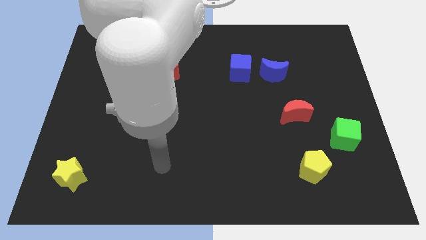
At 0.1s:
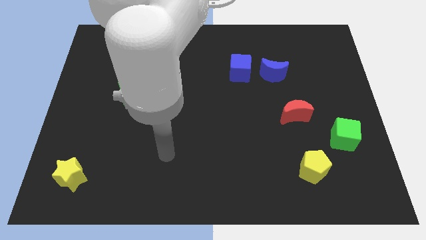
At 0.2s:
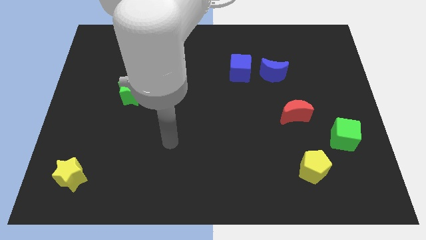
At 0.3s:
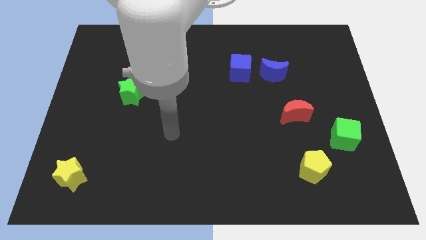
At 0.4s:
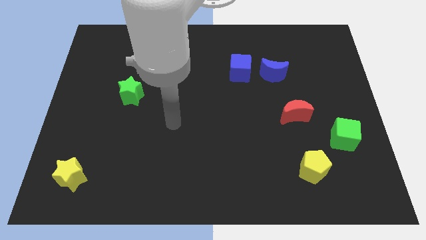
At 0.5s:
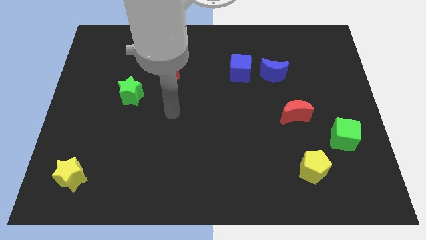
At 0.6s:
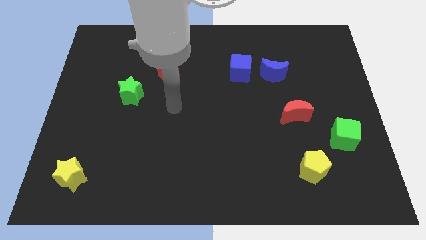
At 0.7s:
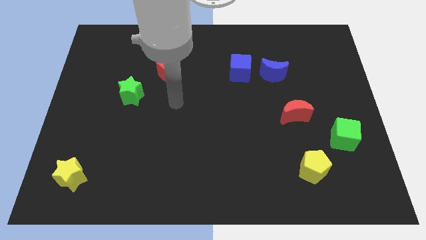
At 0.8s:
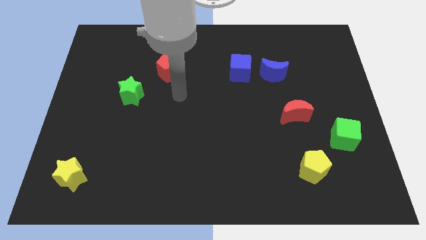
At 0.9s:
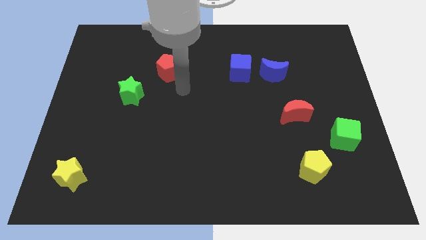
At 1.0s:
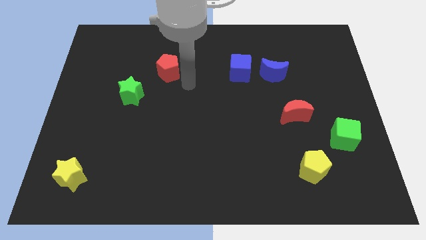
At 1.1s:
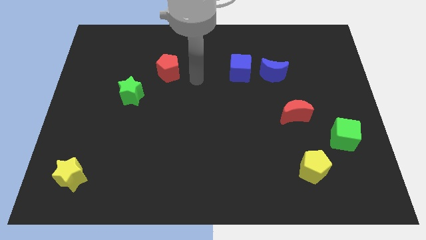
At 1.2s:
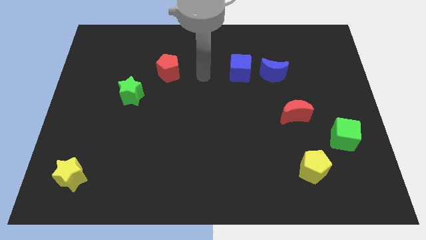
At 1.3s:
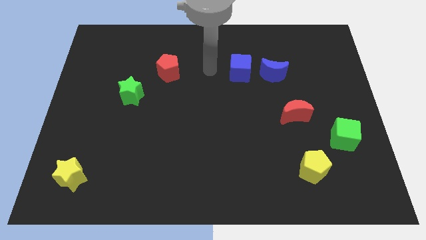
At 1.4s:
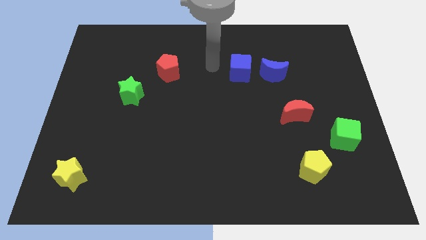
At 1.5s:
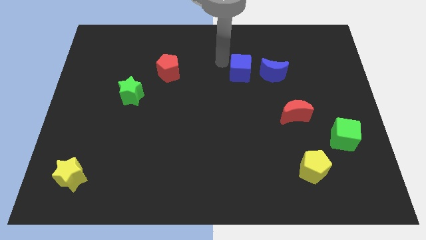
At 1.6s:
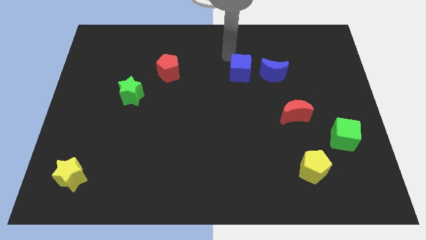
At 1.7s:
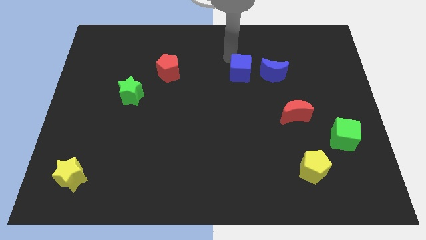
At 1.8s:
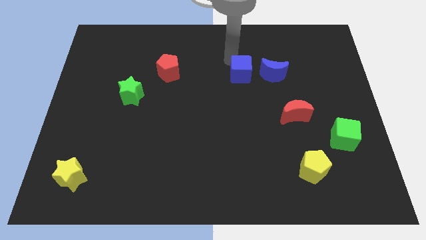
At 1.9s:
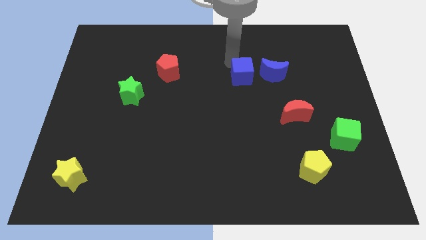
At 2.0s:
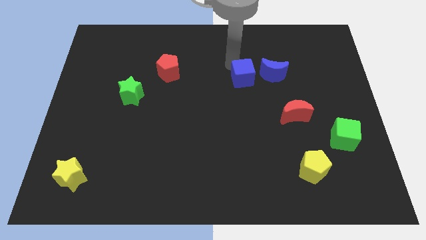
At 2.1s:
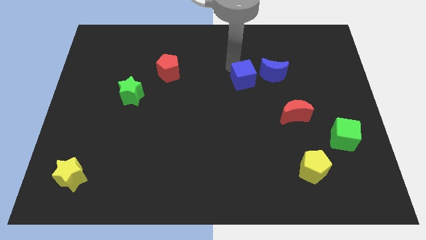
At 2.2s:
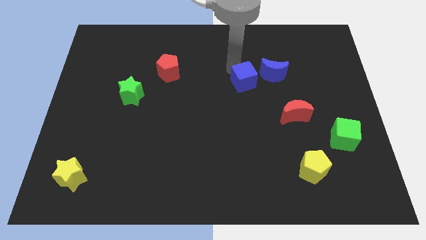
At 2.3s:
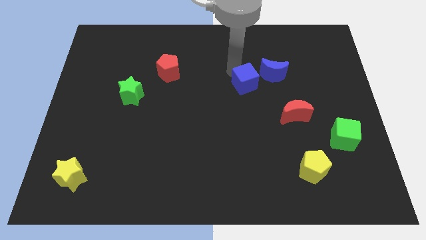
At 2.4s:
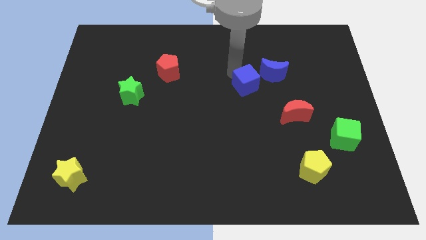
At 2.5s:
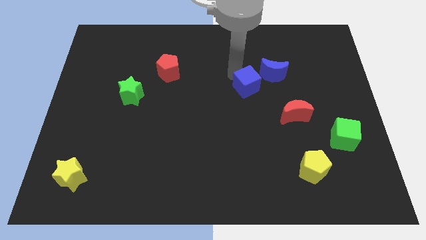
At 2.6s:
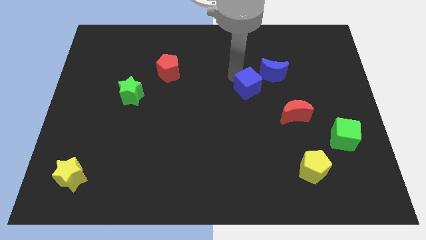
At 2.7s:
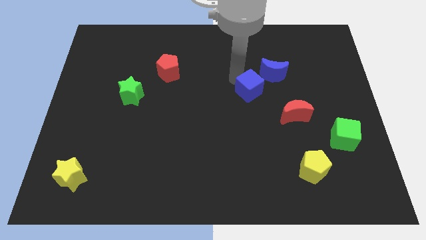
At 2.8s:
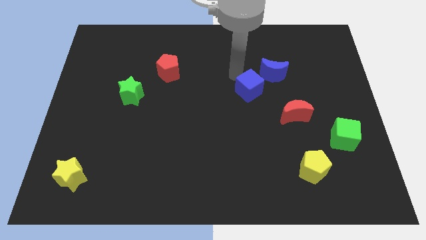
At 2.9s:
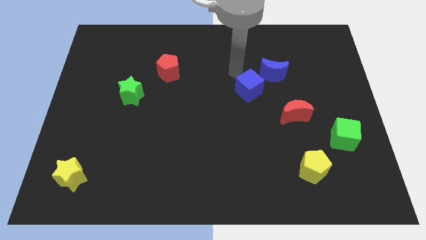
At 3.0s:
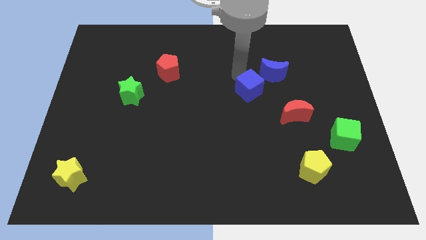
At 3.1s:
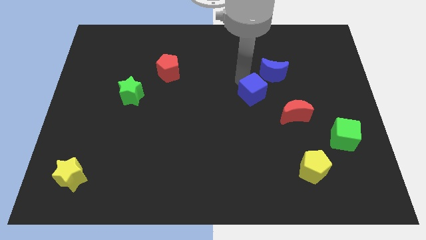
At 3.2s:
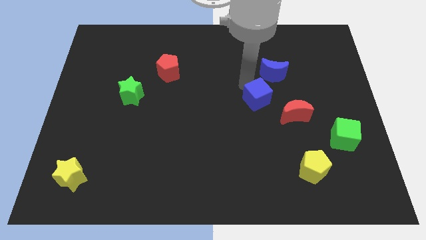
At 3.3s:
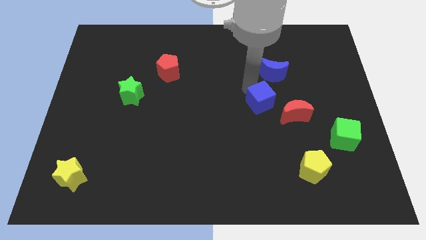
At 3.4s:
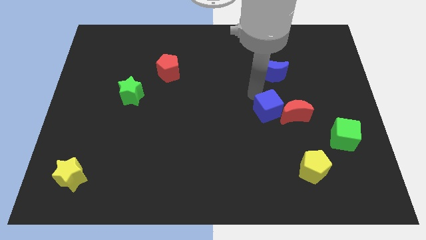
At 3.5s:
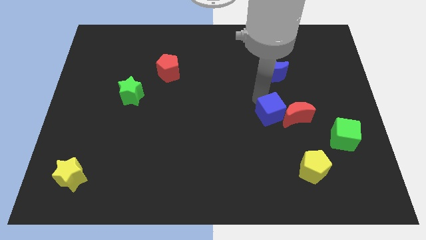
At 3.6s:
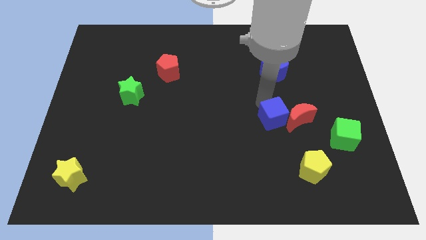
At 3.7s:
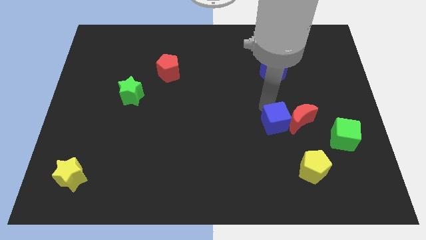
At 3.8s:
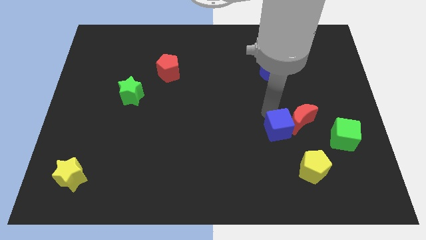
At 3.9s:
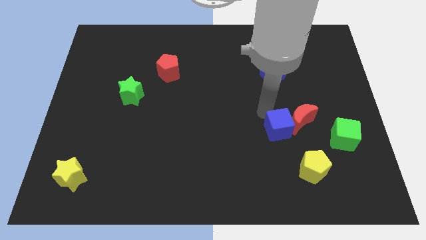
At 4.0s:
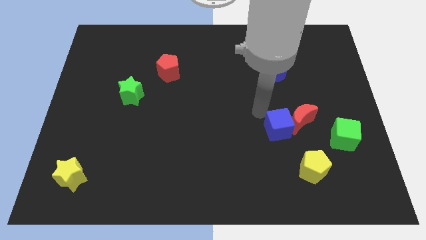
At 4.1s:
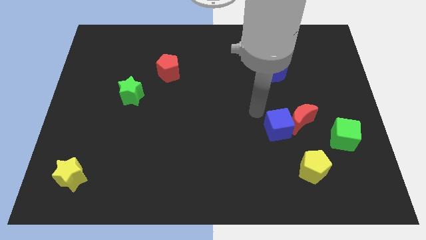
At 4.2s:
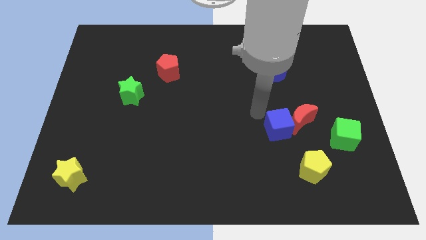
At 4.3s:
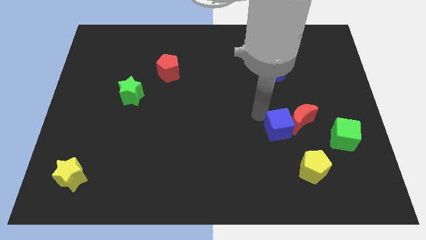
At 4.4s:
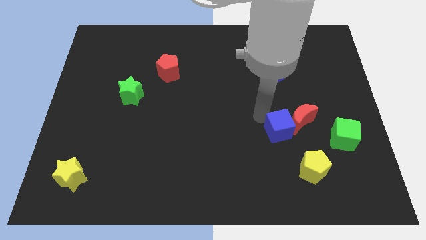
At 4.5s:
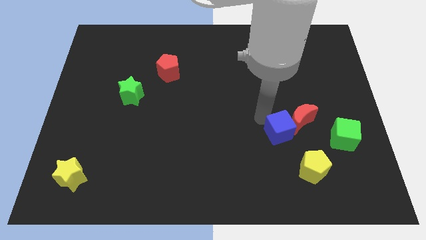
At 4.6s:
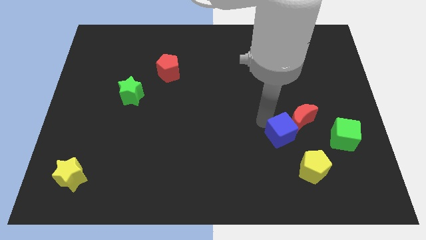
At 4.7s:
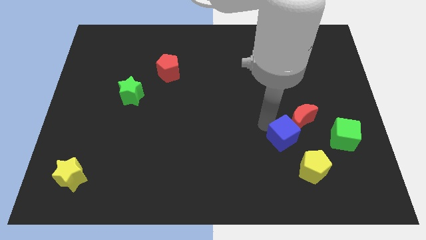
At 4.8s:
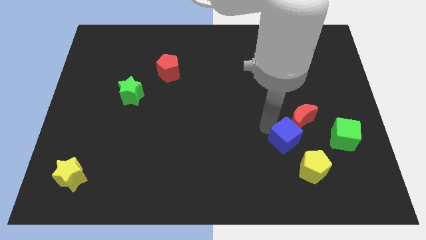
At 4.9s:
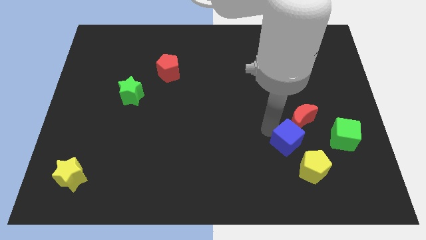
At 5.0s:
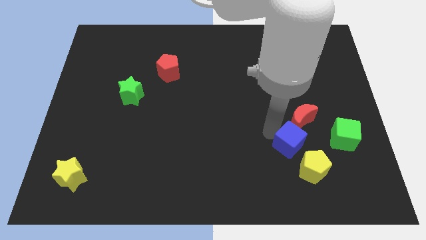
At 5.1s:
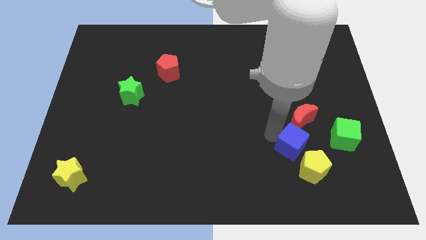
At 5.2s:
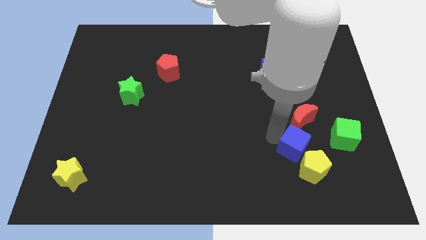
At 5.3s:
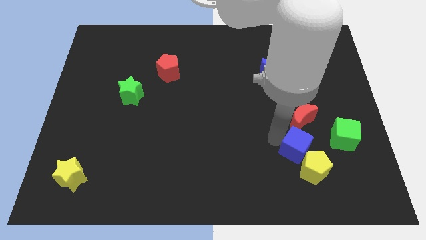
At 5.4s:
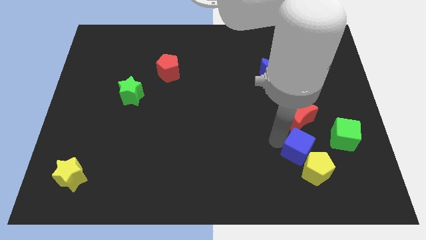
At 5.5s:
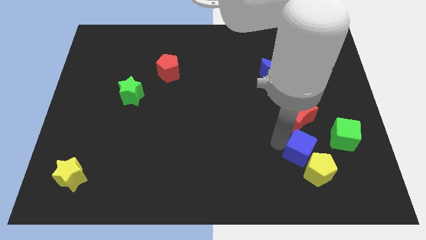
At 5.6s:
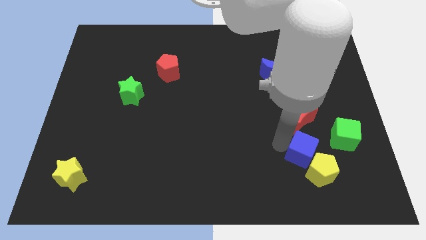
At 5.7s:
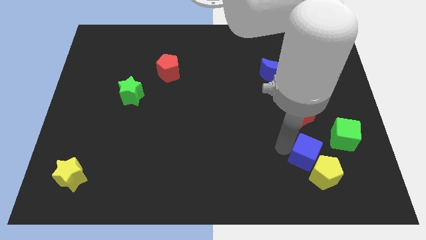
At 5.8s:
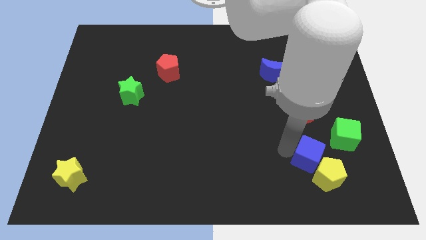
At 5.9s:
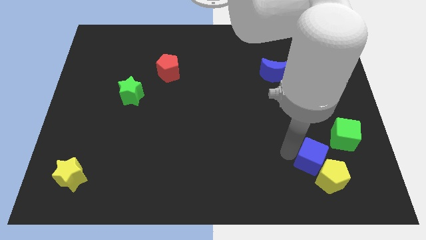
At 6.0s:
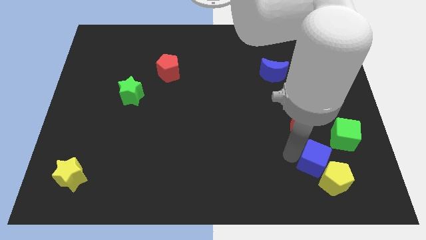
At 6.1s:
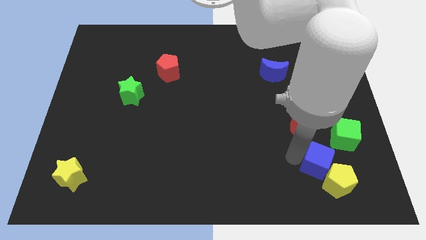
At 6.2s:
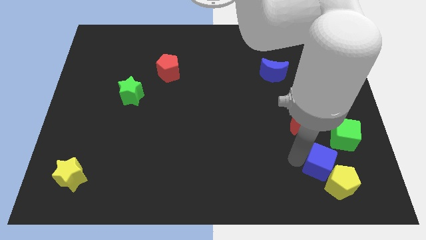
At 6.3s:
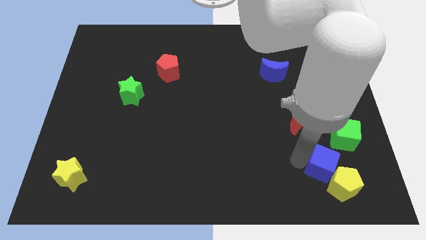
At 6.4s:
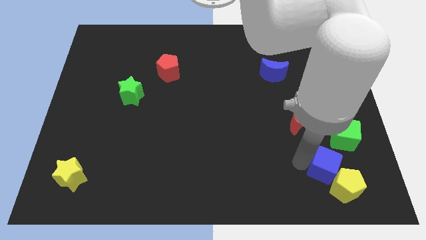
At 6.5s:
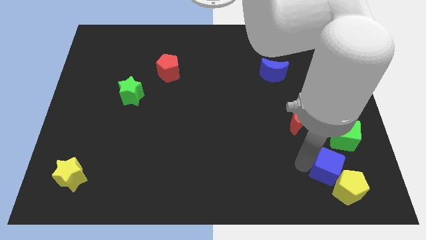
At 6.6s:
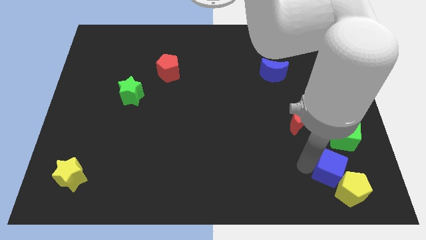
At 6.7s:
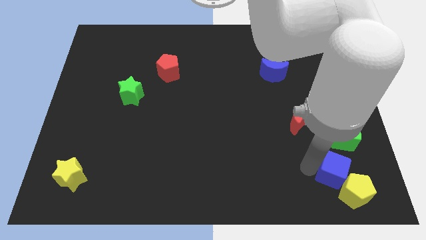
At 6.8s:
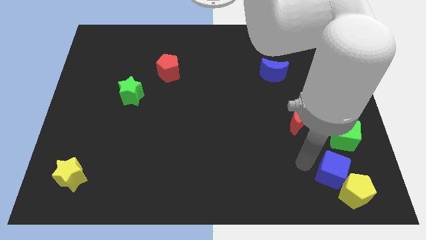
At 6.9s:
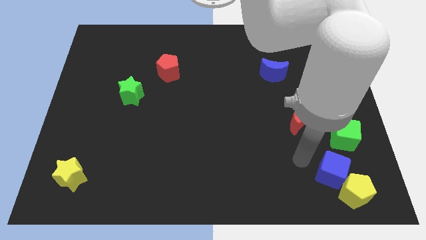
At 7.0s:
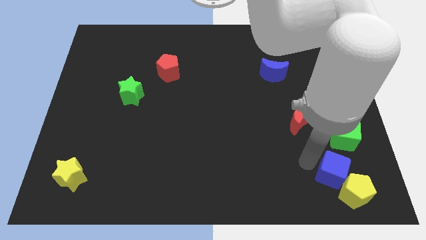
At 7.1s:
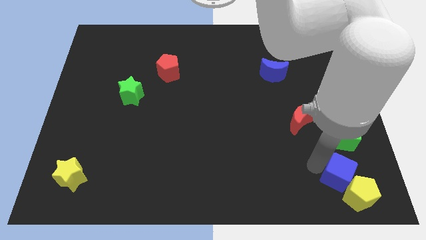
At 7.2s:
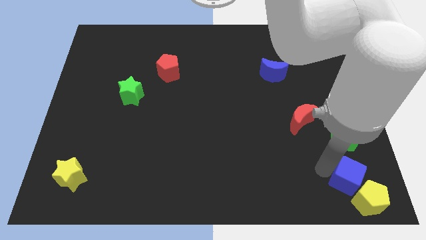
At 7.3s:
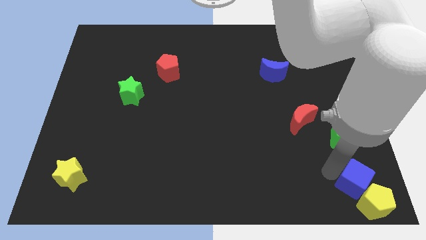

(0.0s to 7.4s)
slide the blue cube to the lower right corner

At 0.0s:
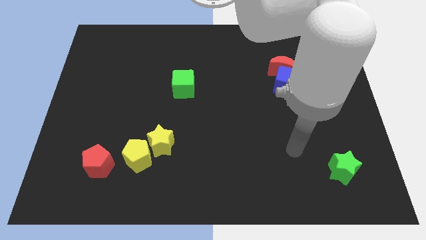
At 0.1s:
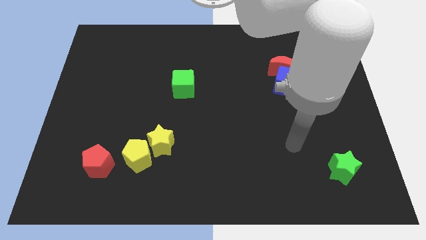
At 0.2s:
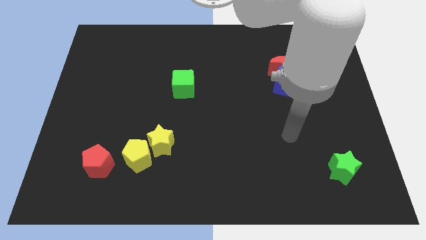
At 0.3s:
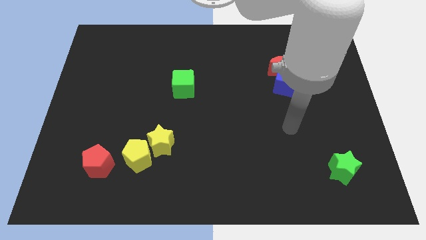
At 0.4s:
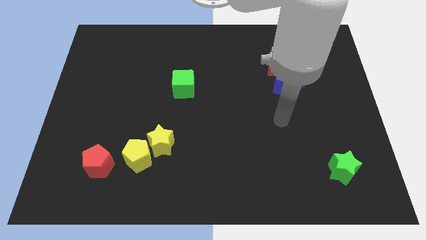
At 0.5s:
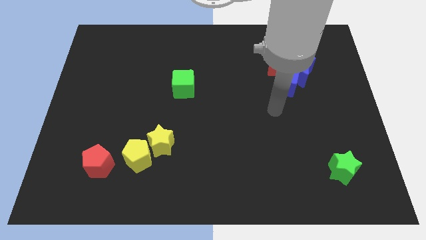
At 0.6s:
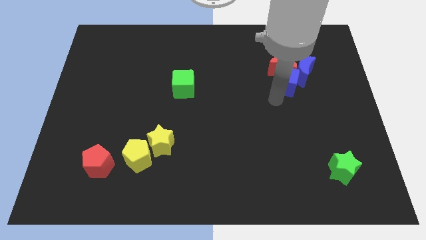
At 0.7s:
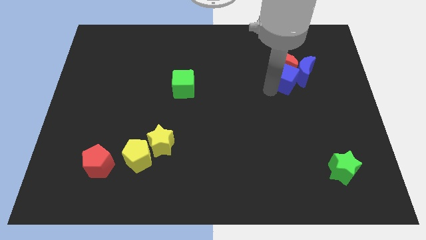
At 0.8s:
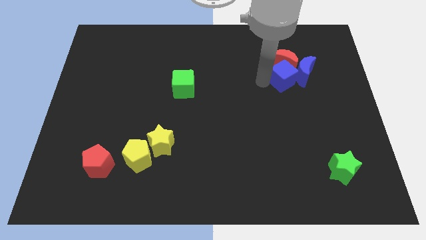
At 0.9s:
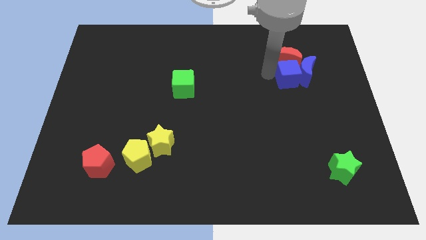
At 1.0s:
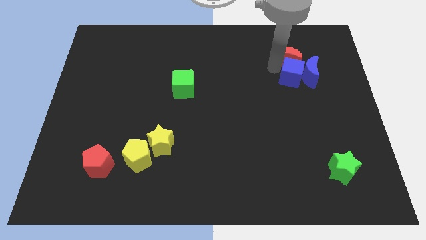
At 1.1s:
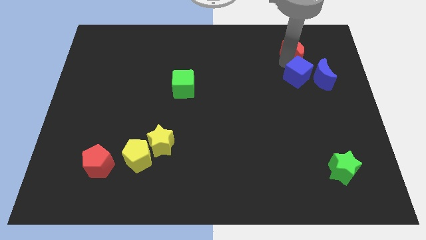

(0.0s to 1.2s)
slide the blue moon to the right side of the board
